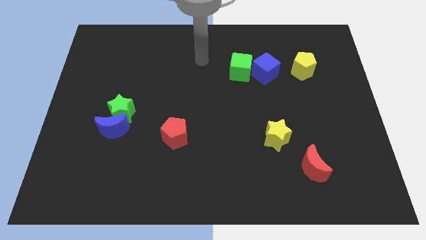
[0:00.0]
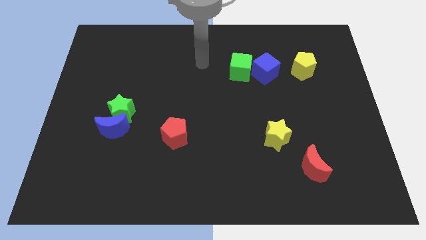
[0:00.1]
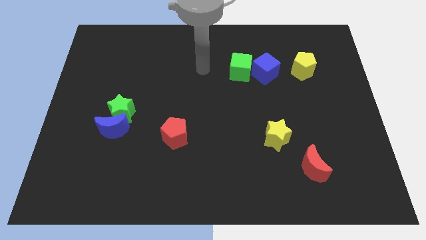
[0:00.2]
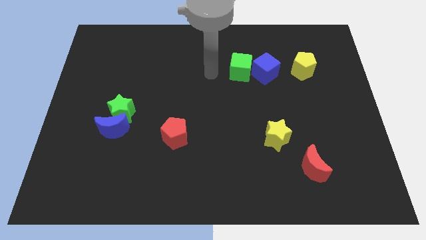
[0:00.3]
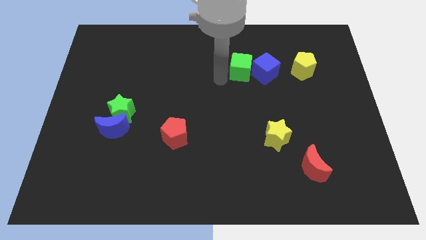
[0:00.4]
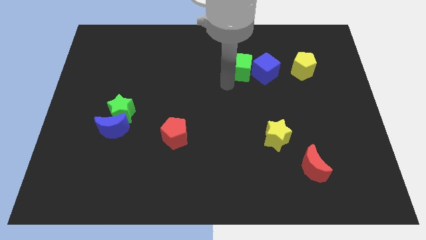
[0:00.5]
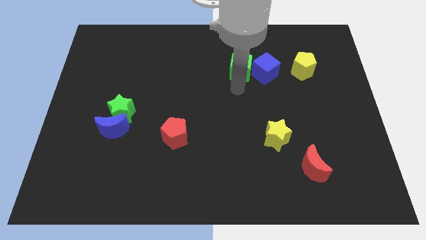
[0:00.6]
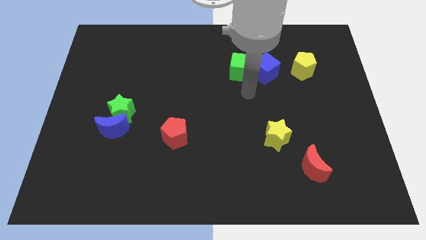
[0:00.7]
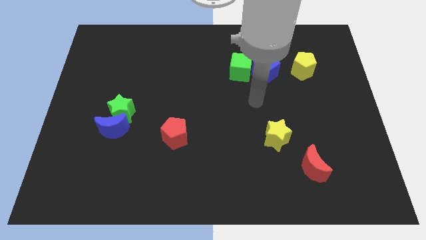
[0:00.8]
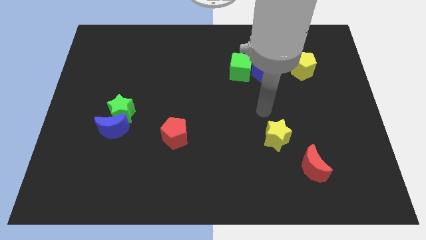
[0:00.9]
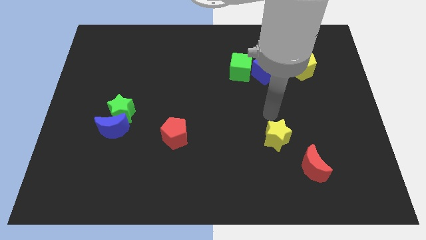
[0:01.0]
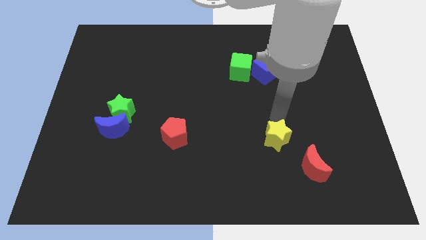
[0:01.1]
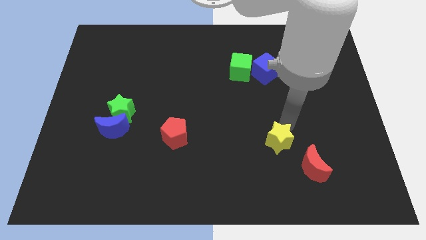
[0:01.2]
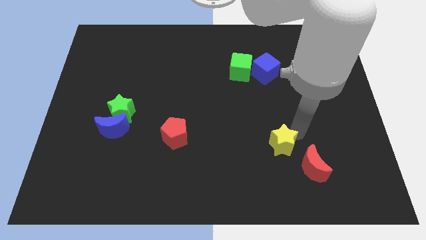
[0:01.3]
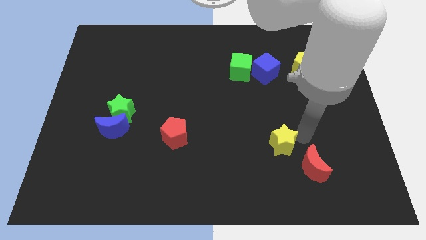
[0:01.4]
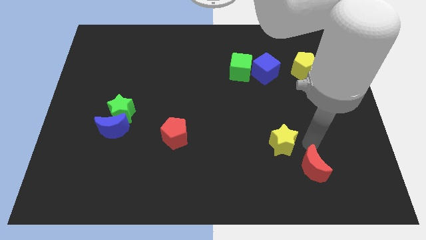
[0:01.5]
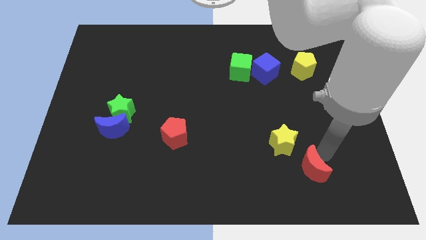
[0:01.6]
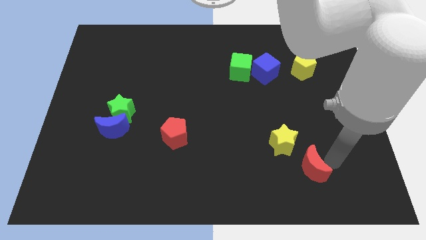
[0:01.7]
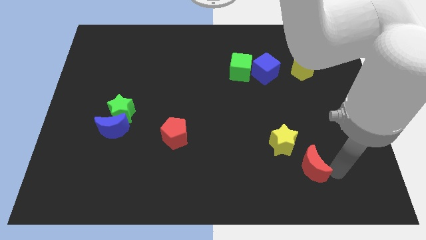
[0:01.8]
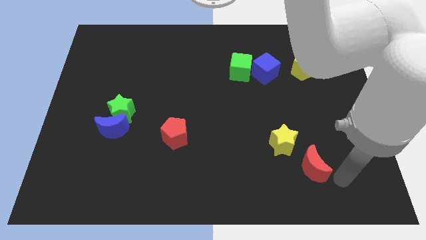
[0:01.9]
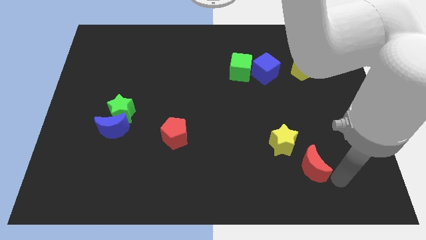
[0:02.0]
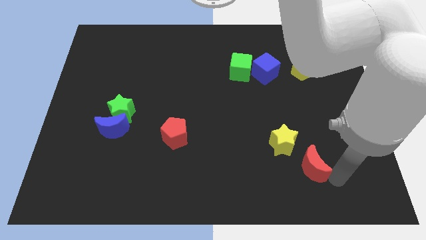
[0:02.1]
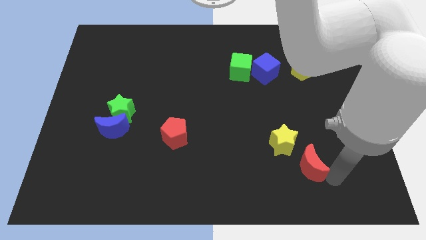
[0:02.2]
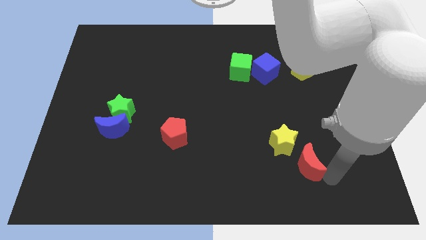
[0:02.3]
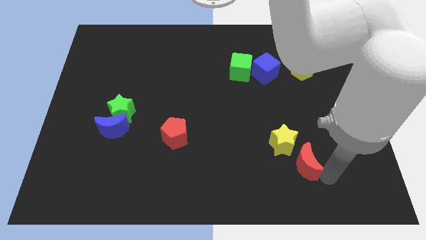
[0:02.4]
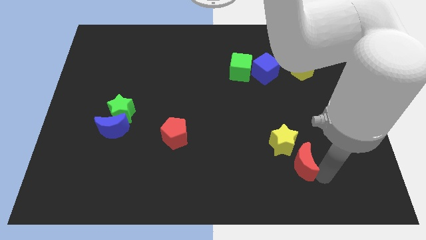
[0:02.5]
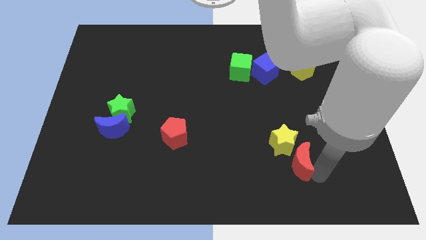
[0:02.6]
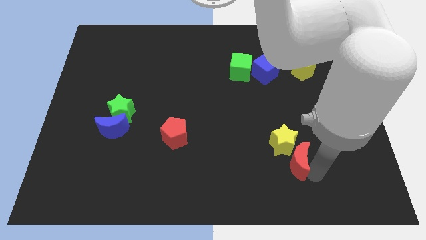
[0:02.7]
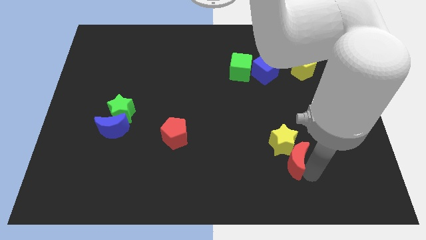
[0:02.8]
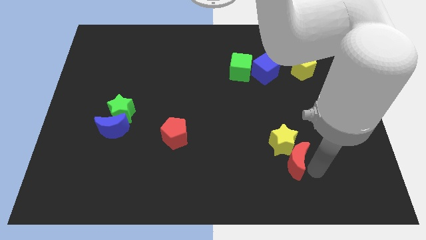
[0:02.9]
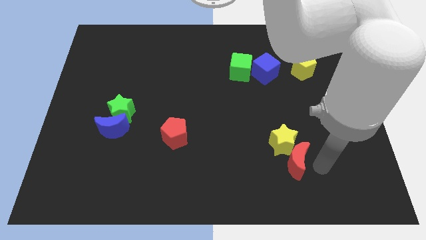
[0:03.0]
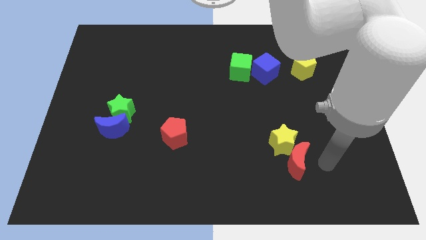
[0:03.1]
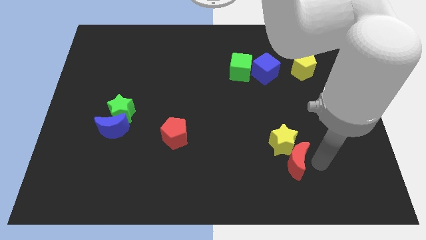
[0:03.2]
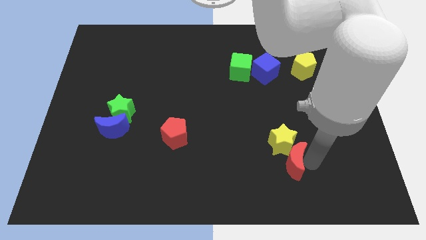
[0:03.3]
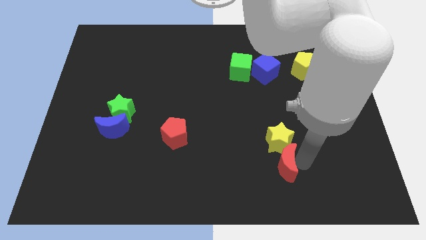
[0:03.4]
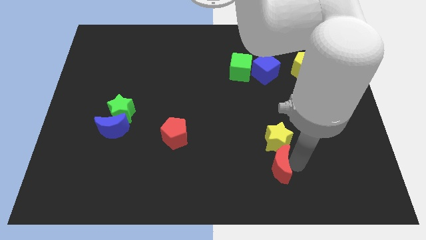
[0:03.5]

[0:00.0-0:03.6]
slightly move the red moon to the left

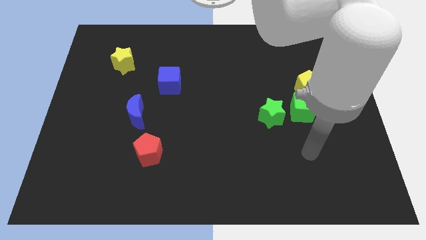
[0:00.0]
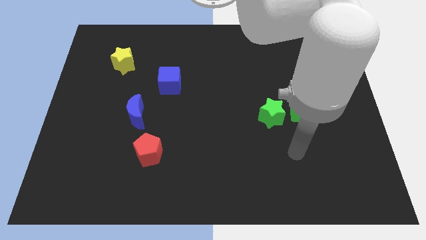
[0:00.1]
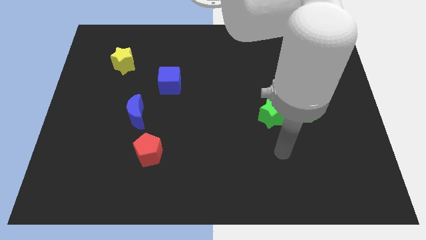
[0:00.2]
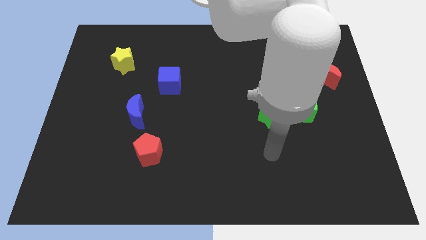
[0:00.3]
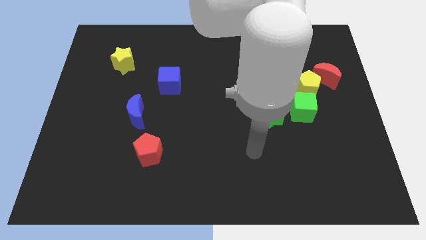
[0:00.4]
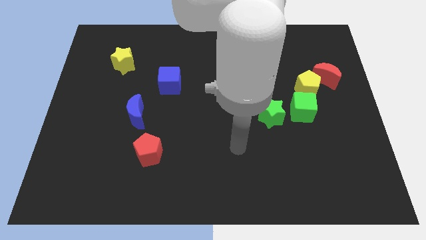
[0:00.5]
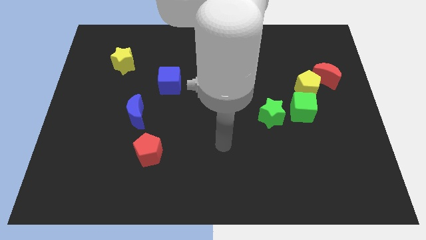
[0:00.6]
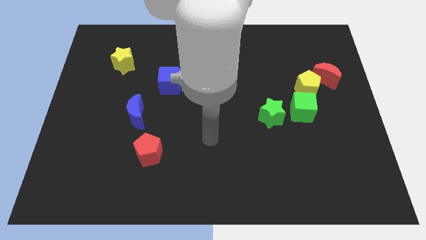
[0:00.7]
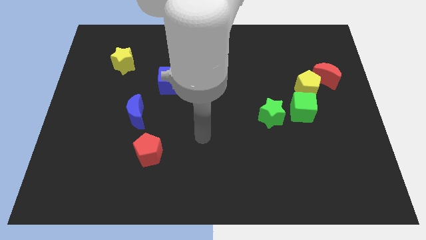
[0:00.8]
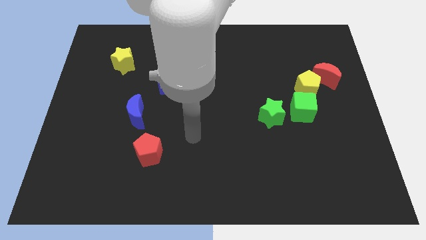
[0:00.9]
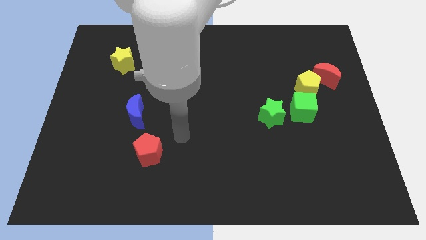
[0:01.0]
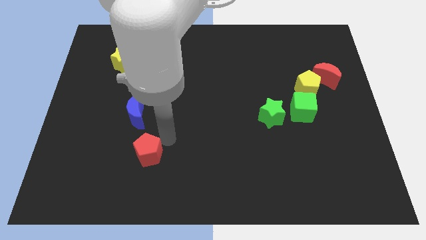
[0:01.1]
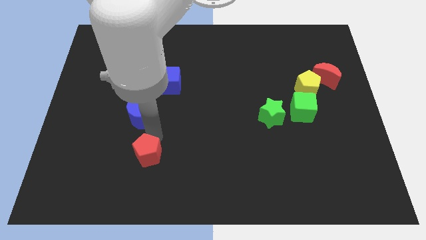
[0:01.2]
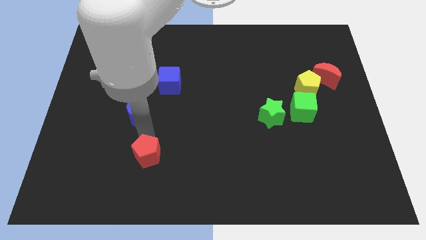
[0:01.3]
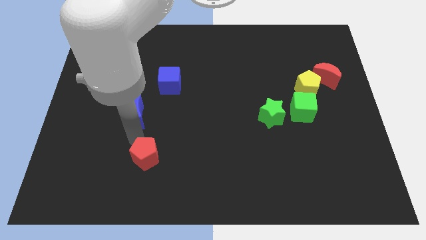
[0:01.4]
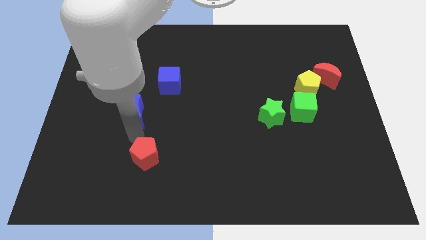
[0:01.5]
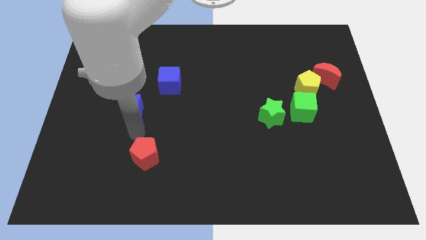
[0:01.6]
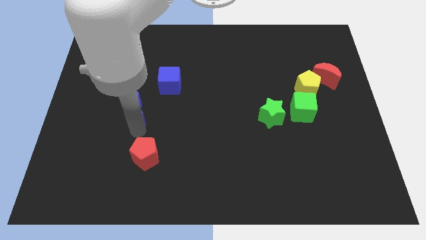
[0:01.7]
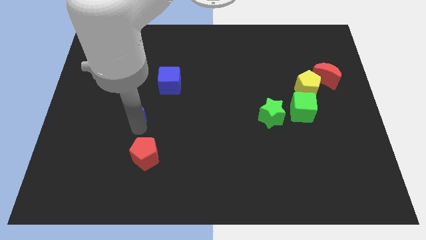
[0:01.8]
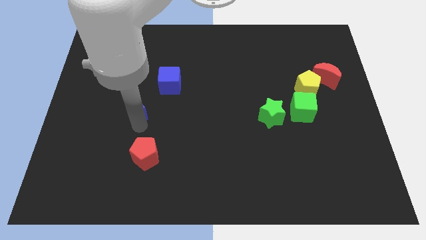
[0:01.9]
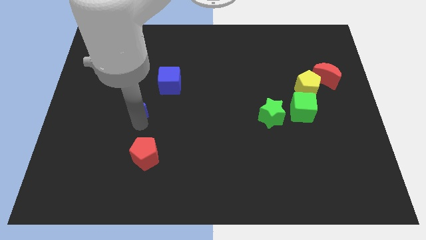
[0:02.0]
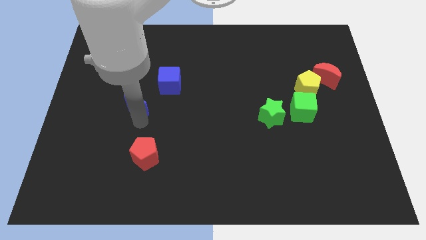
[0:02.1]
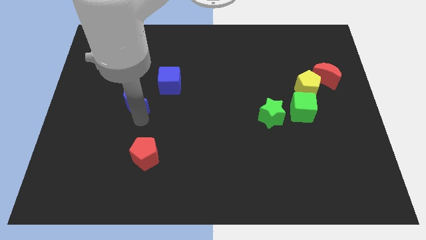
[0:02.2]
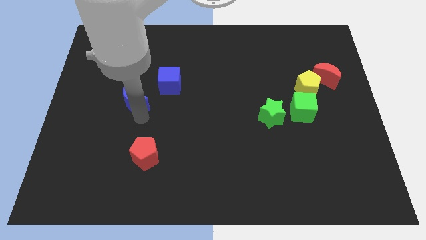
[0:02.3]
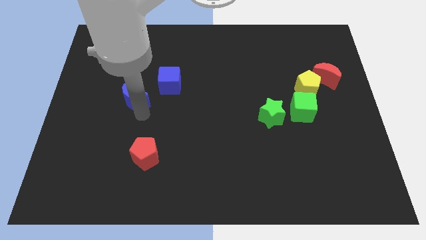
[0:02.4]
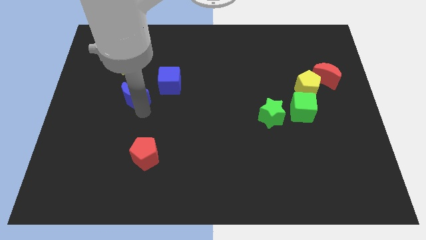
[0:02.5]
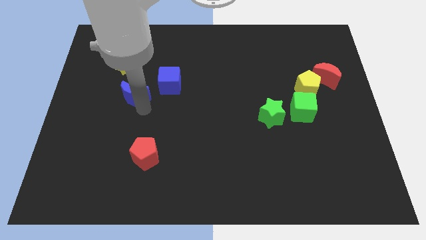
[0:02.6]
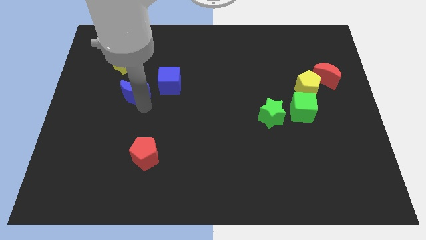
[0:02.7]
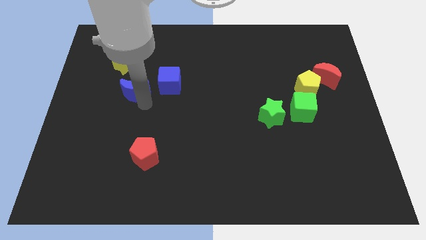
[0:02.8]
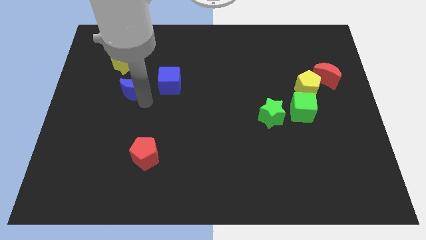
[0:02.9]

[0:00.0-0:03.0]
slightly move the blue moon upwards

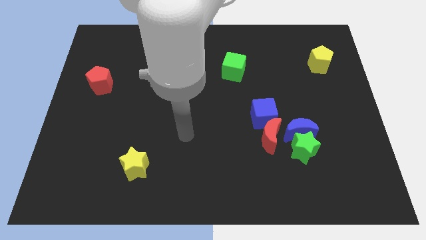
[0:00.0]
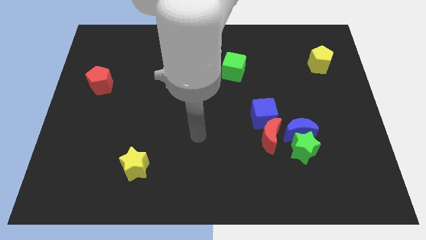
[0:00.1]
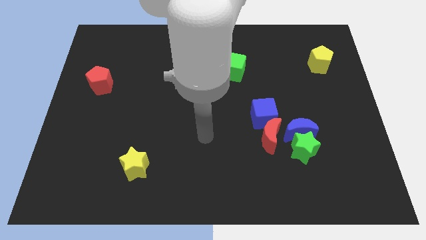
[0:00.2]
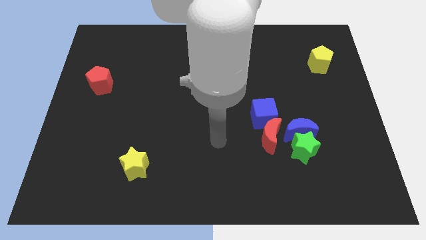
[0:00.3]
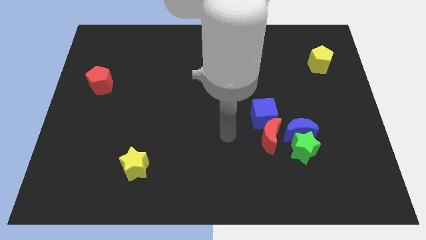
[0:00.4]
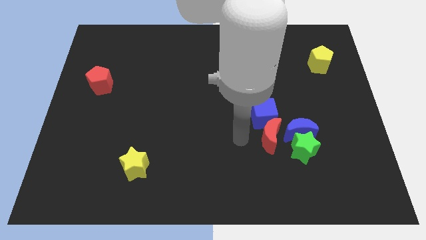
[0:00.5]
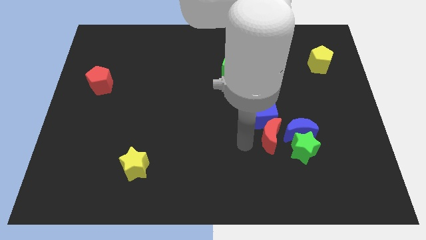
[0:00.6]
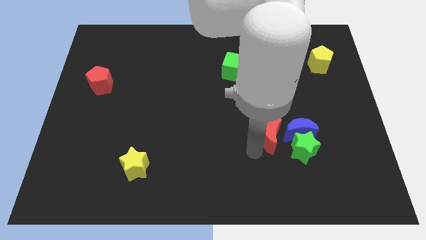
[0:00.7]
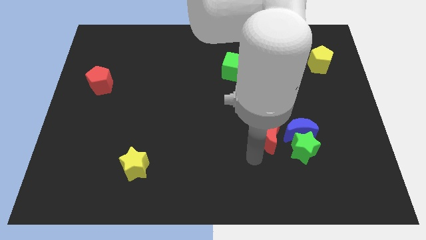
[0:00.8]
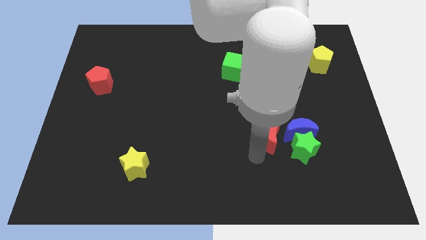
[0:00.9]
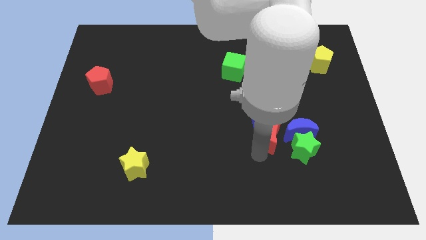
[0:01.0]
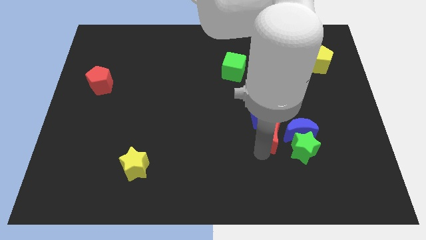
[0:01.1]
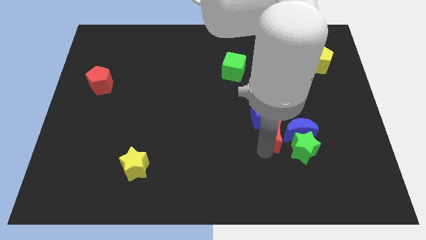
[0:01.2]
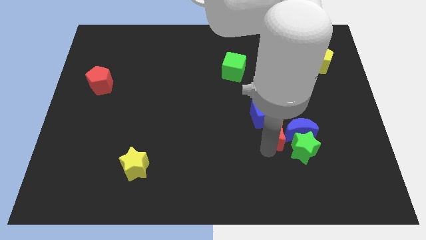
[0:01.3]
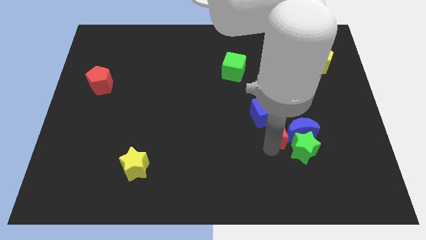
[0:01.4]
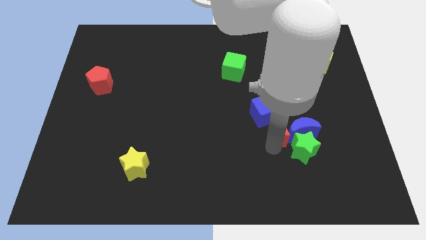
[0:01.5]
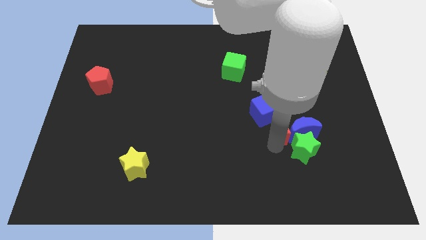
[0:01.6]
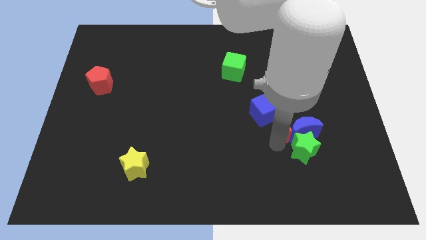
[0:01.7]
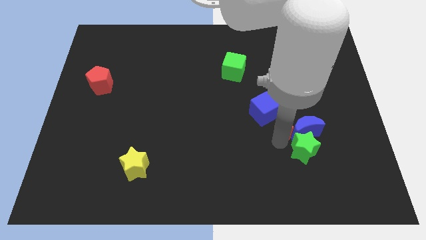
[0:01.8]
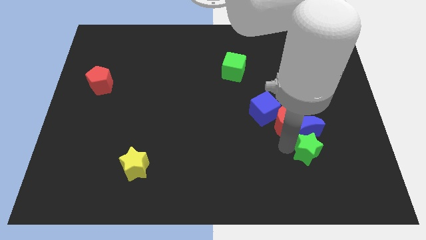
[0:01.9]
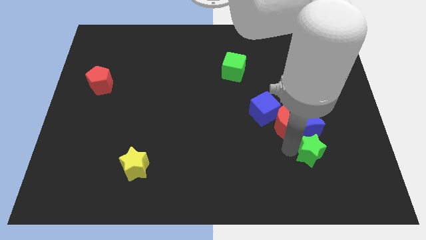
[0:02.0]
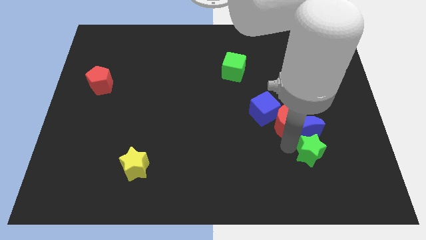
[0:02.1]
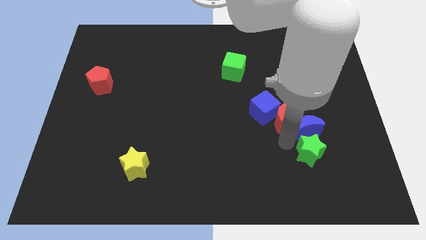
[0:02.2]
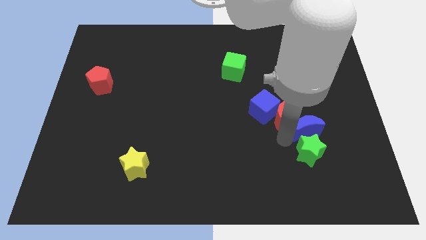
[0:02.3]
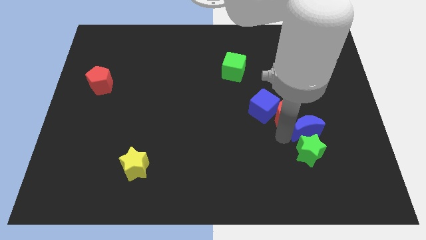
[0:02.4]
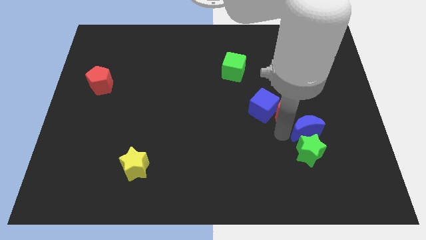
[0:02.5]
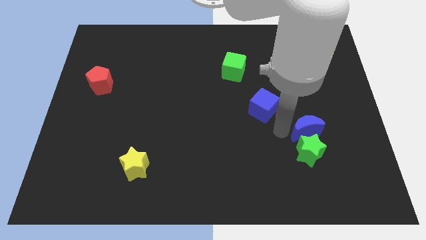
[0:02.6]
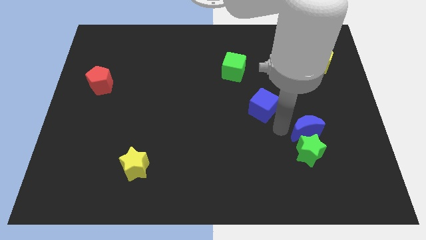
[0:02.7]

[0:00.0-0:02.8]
push the red moon up slightly
